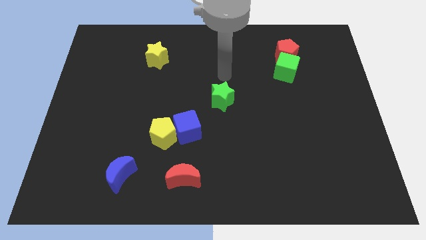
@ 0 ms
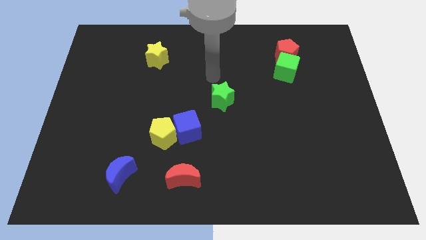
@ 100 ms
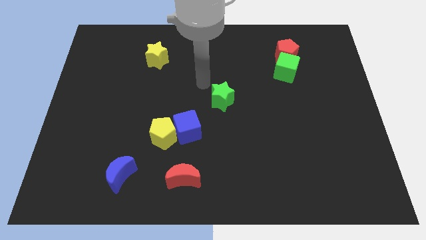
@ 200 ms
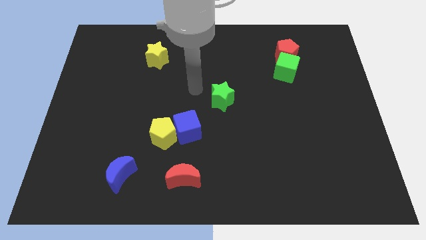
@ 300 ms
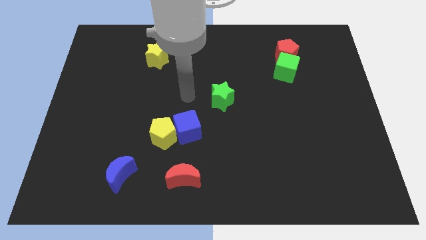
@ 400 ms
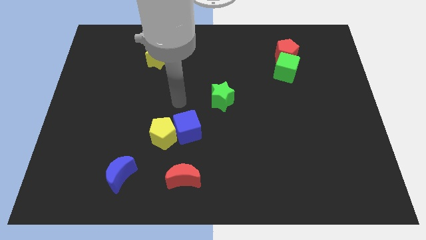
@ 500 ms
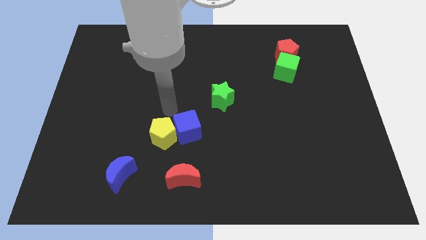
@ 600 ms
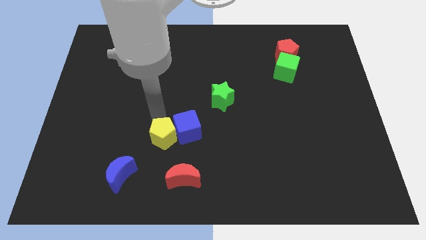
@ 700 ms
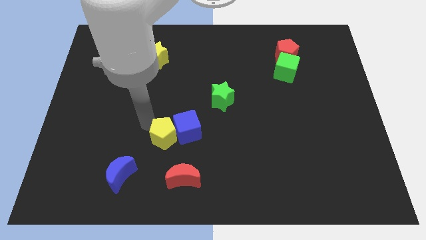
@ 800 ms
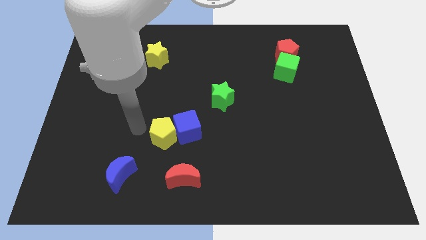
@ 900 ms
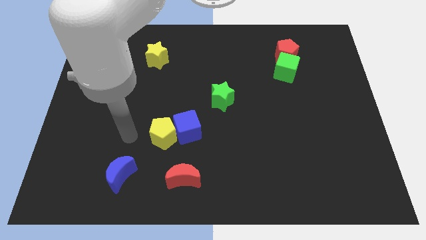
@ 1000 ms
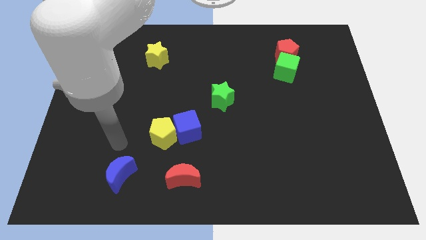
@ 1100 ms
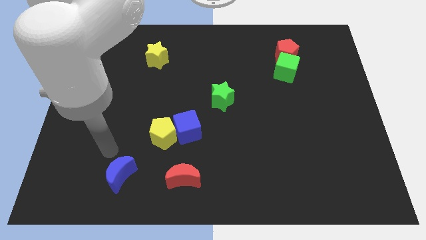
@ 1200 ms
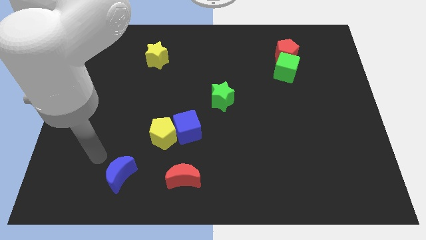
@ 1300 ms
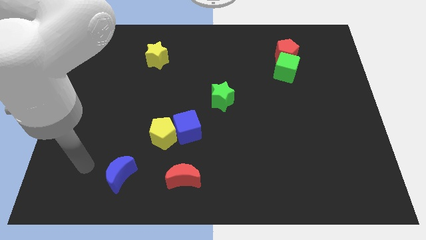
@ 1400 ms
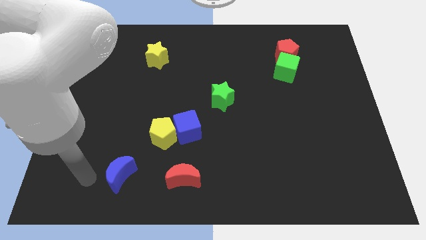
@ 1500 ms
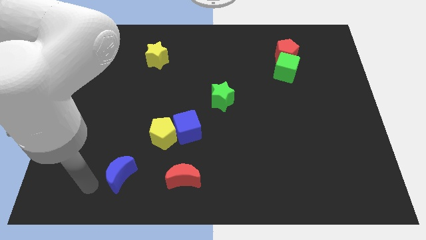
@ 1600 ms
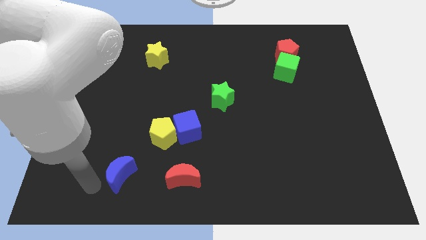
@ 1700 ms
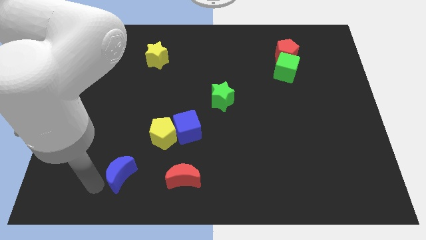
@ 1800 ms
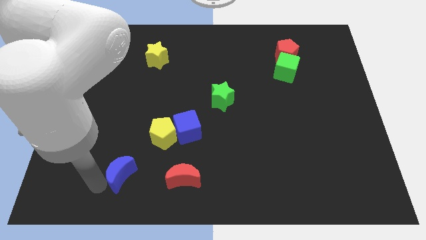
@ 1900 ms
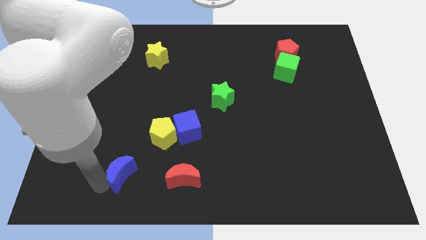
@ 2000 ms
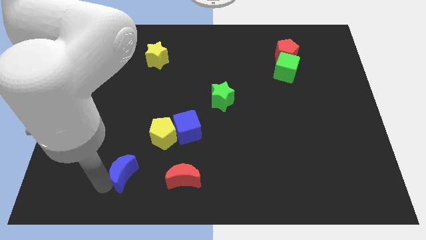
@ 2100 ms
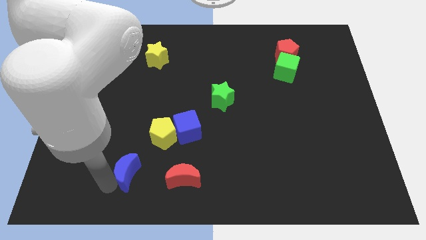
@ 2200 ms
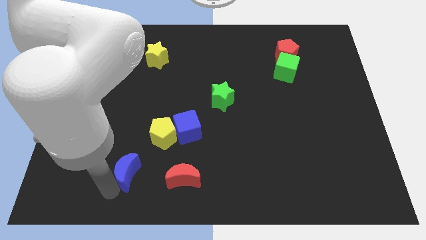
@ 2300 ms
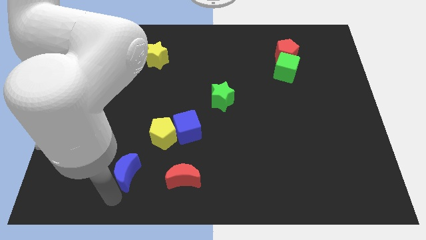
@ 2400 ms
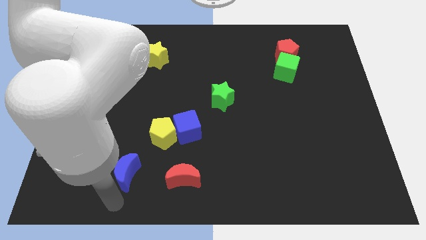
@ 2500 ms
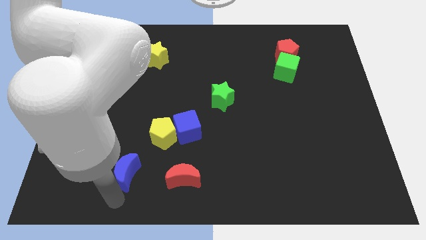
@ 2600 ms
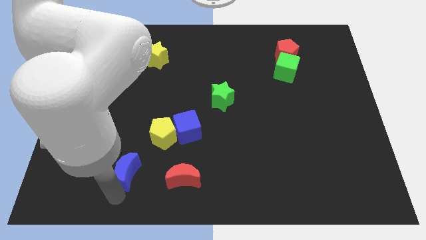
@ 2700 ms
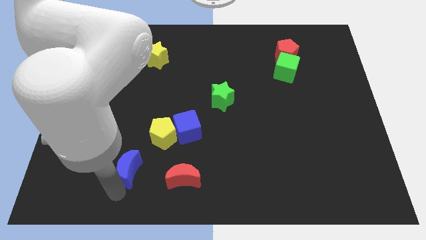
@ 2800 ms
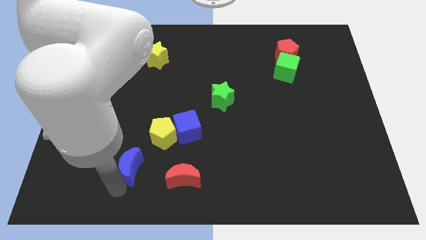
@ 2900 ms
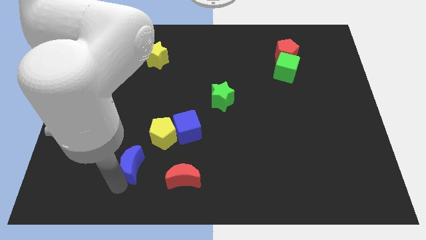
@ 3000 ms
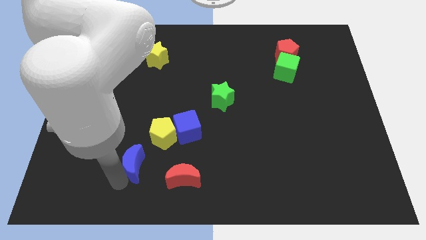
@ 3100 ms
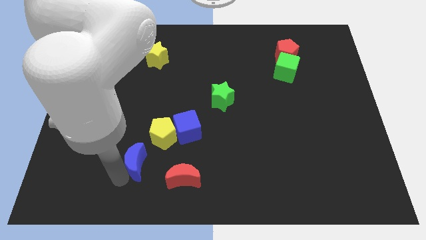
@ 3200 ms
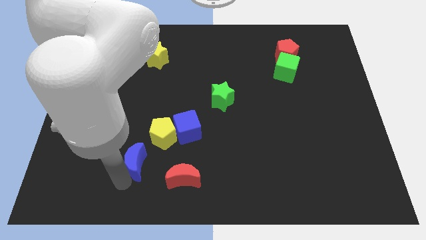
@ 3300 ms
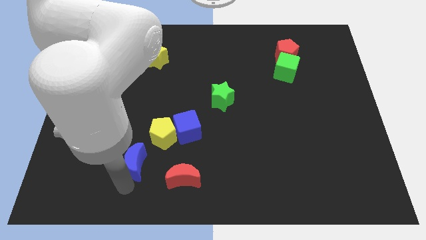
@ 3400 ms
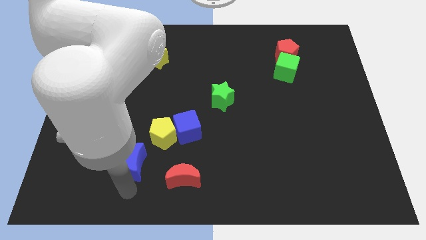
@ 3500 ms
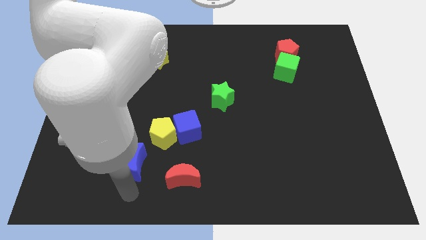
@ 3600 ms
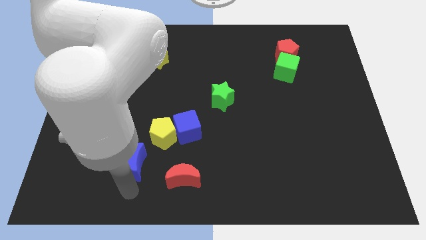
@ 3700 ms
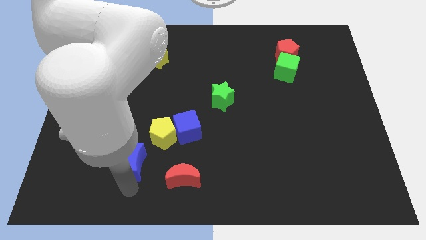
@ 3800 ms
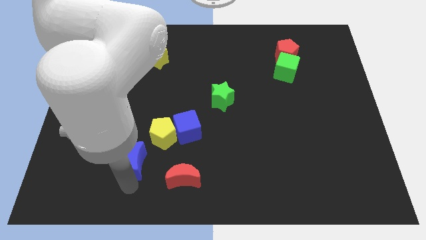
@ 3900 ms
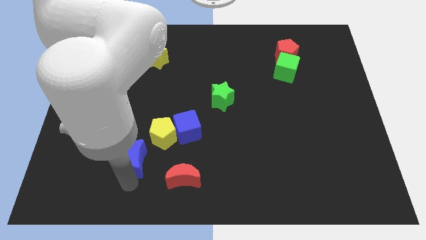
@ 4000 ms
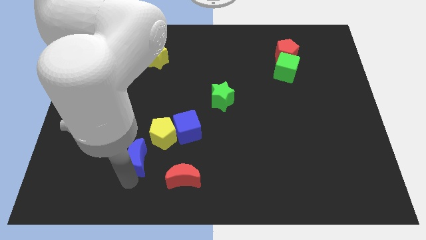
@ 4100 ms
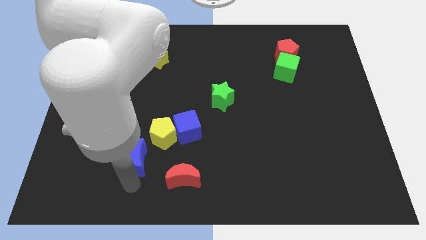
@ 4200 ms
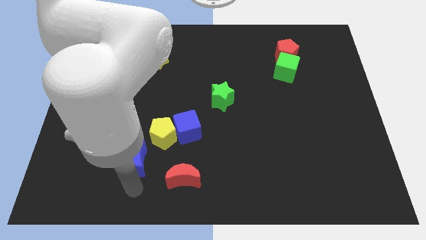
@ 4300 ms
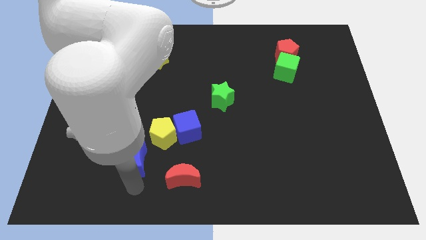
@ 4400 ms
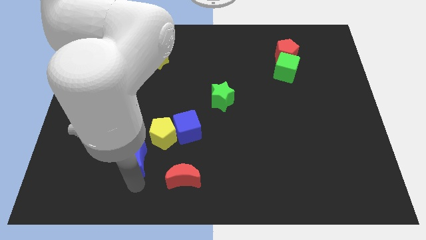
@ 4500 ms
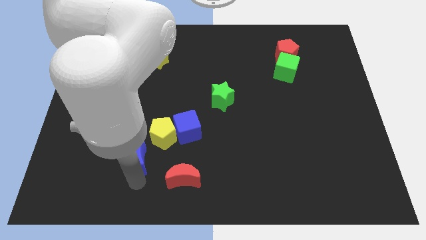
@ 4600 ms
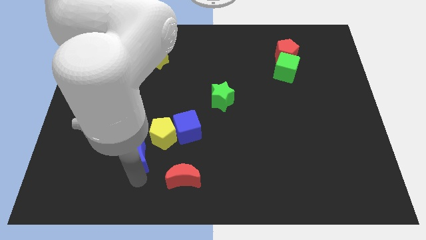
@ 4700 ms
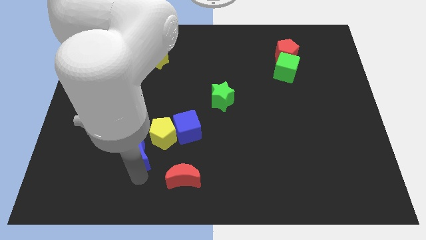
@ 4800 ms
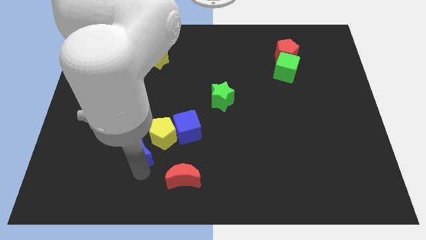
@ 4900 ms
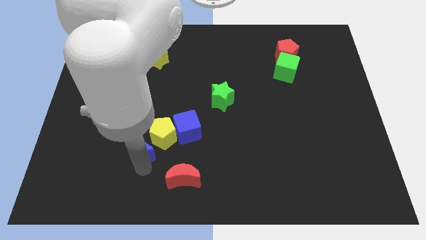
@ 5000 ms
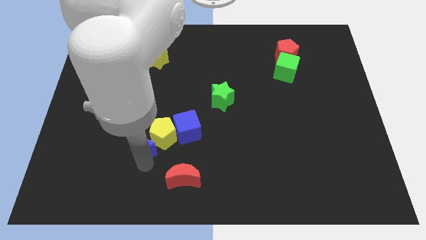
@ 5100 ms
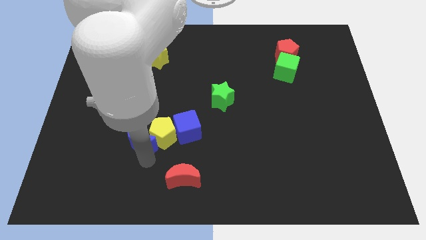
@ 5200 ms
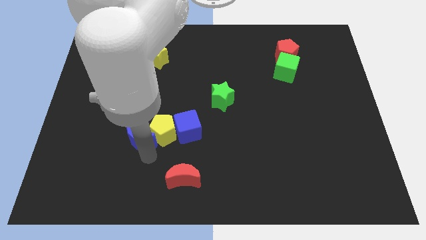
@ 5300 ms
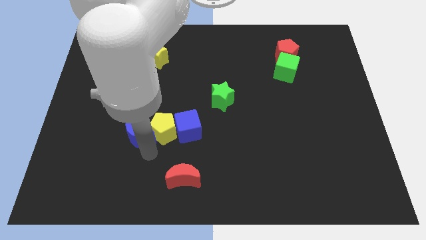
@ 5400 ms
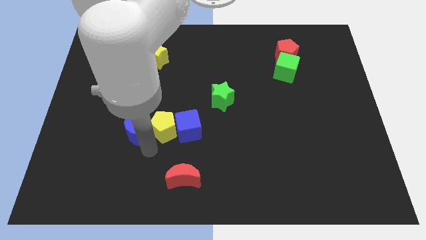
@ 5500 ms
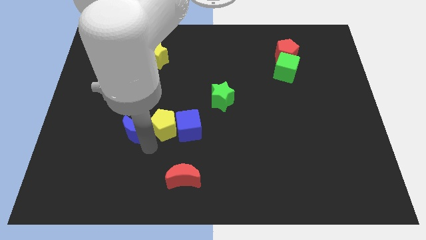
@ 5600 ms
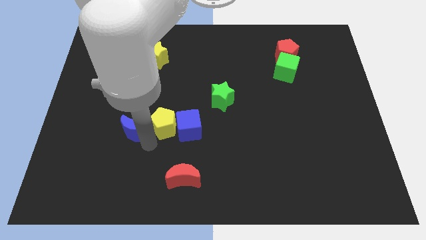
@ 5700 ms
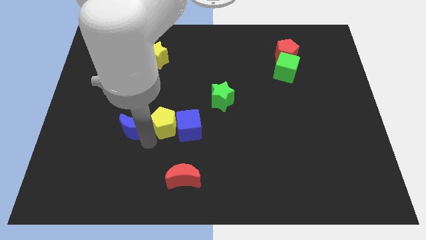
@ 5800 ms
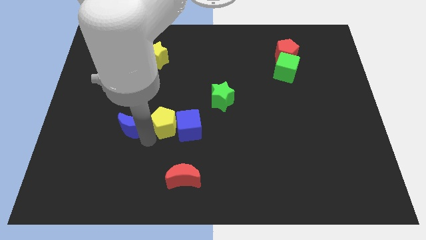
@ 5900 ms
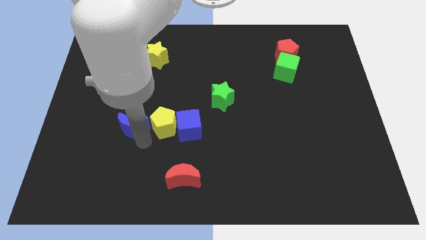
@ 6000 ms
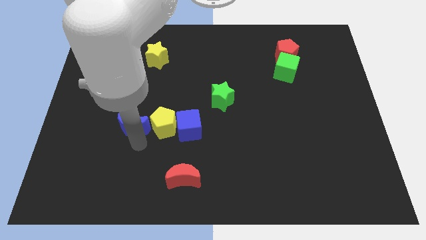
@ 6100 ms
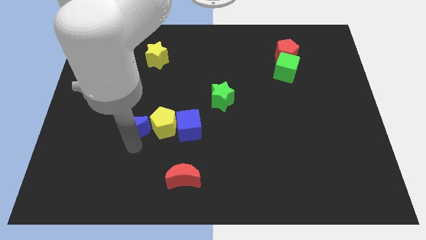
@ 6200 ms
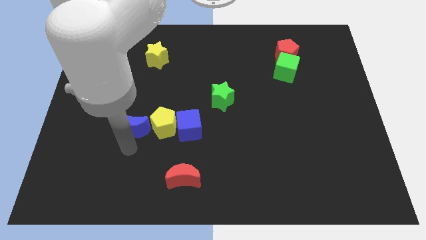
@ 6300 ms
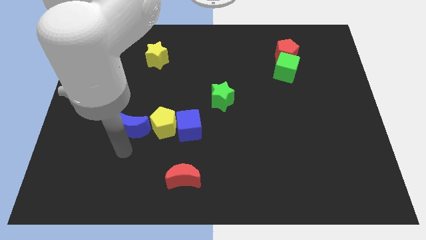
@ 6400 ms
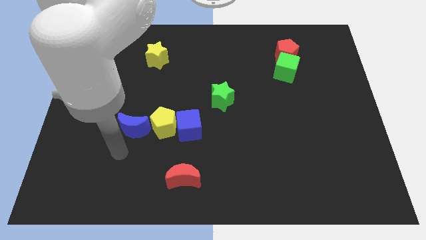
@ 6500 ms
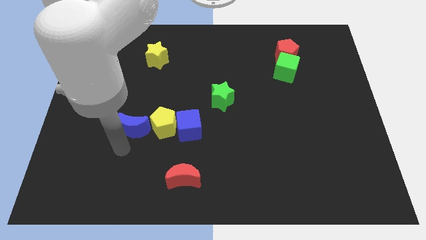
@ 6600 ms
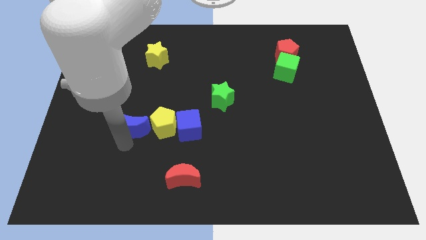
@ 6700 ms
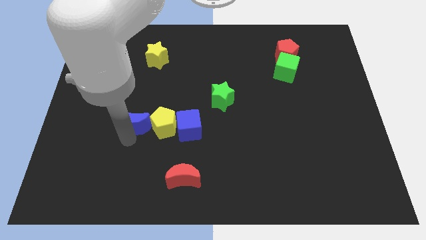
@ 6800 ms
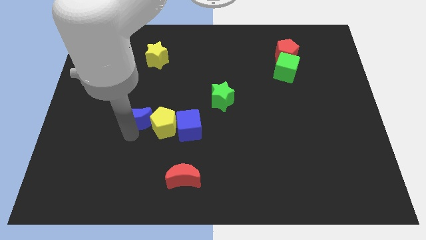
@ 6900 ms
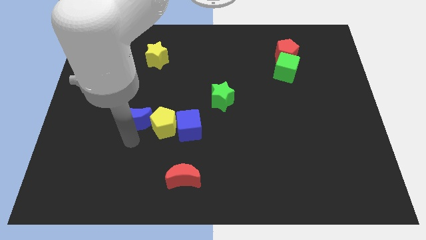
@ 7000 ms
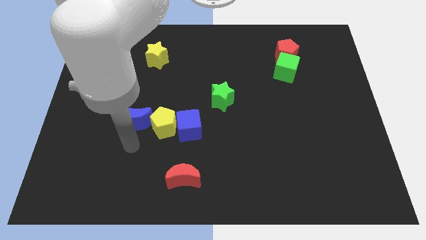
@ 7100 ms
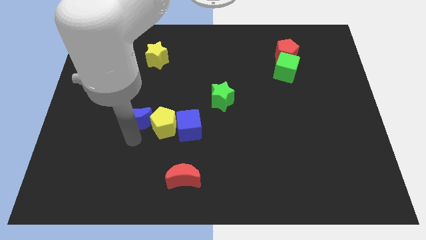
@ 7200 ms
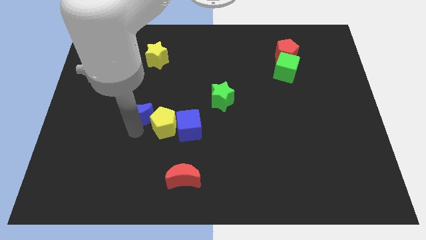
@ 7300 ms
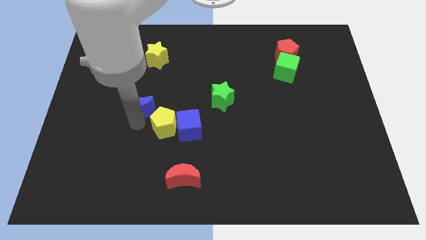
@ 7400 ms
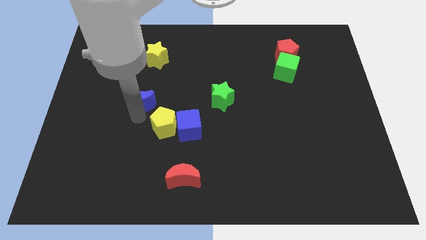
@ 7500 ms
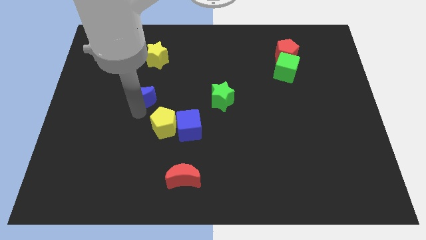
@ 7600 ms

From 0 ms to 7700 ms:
move the blue moon up
